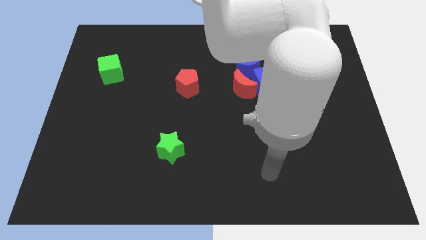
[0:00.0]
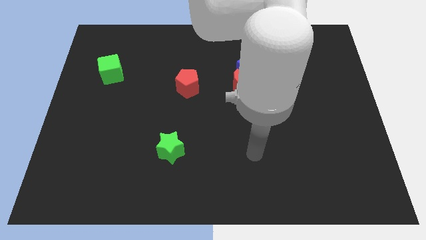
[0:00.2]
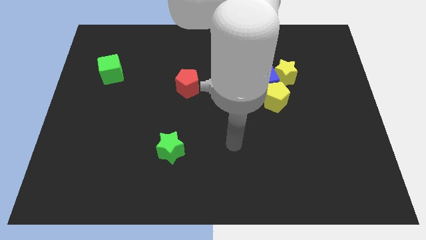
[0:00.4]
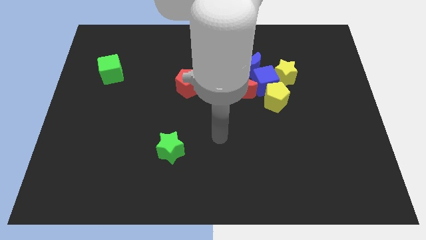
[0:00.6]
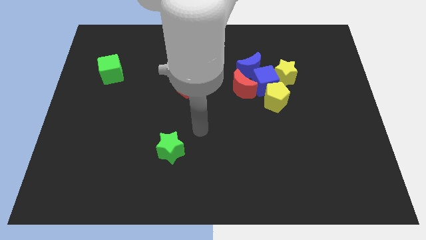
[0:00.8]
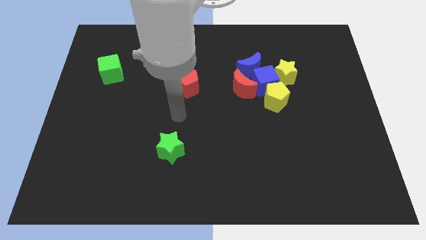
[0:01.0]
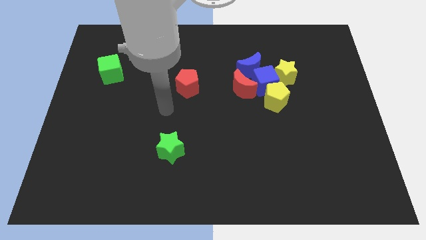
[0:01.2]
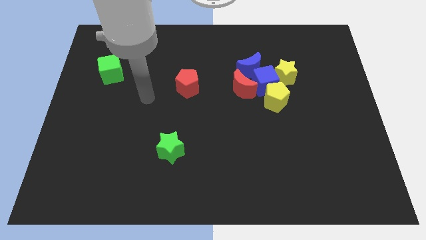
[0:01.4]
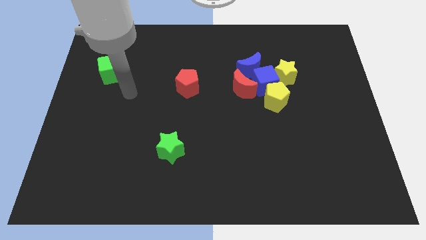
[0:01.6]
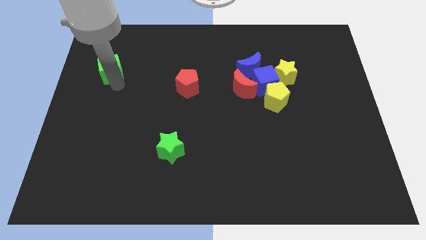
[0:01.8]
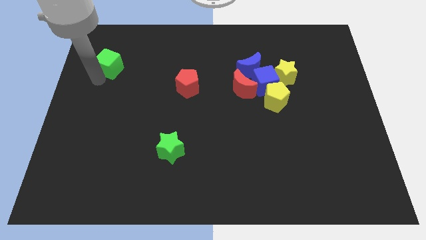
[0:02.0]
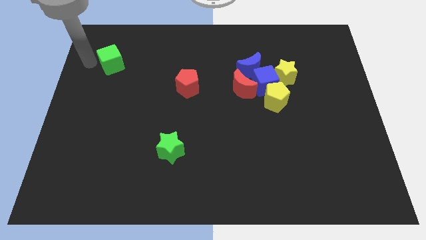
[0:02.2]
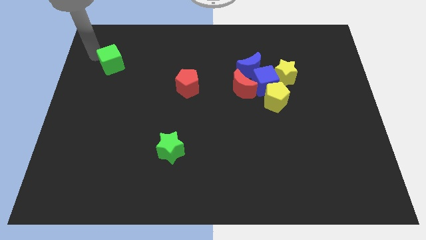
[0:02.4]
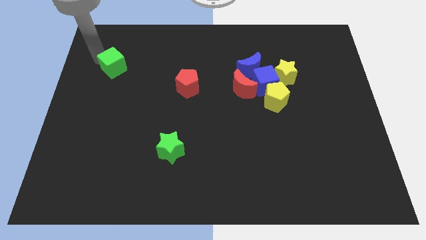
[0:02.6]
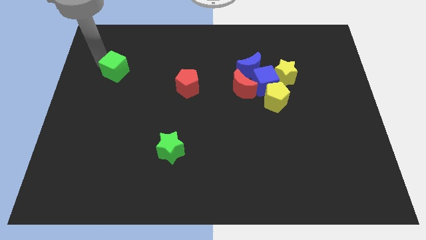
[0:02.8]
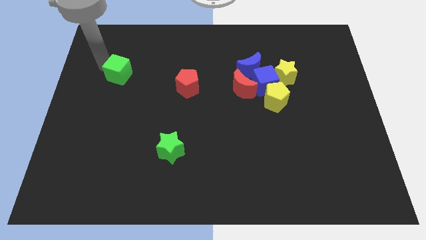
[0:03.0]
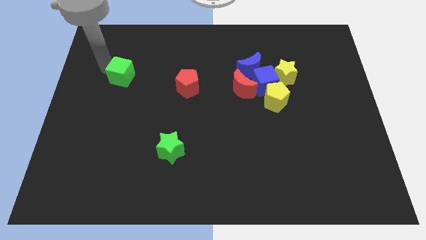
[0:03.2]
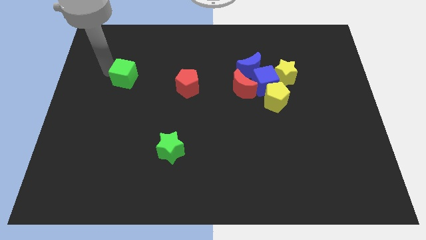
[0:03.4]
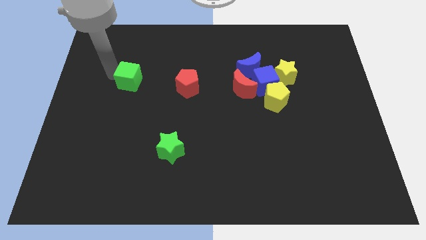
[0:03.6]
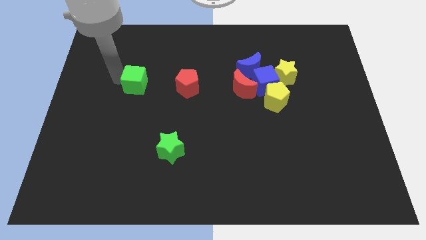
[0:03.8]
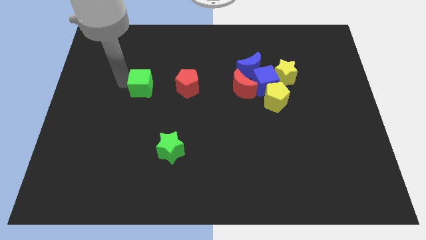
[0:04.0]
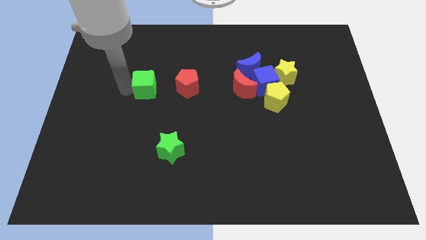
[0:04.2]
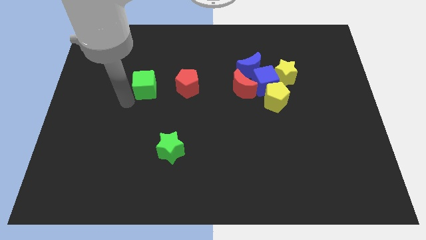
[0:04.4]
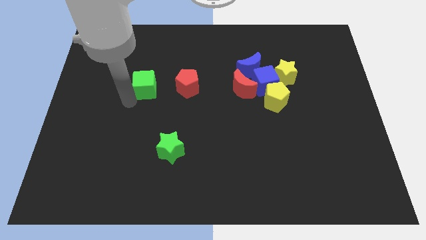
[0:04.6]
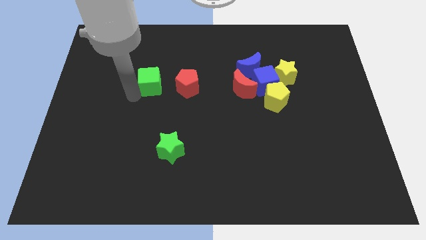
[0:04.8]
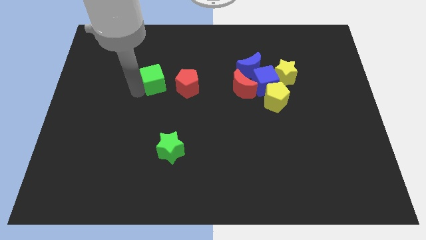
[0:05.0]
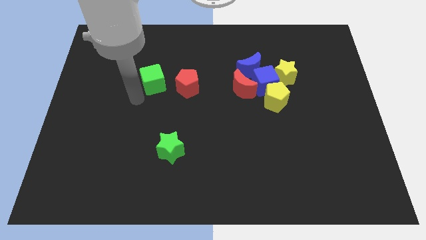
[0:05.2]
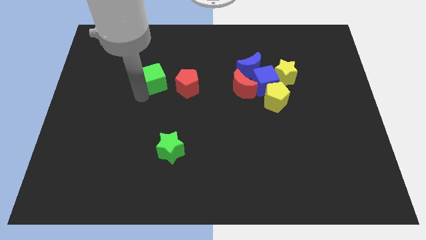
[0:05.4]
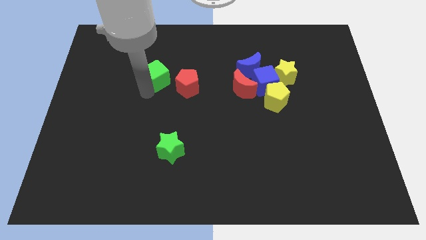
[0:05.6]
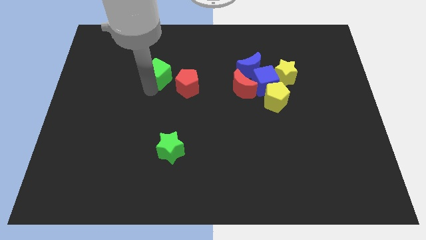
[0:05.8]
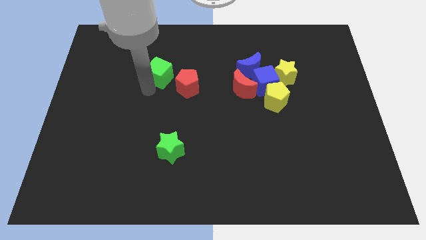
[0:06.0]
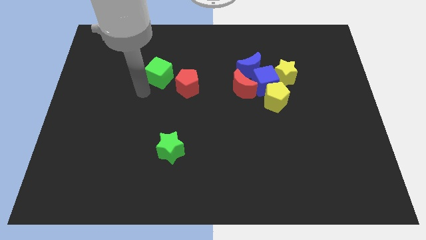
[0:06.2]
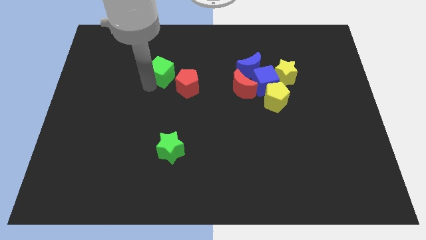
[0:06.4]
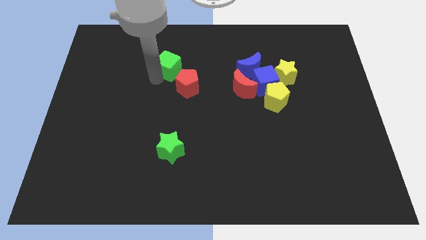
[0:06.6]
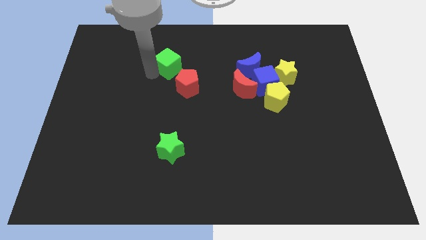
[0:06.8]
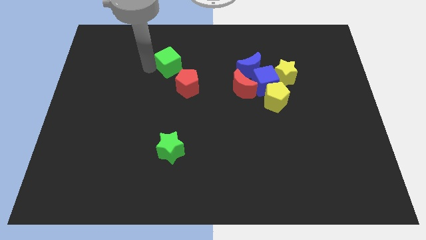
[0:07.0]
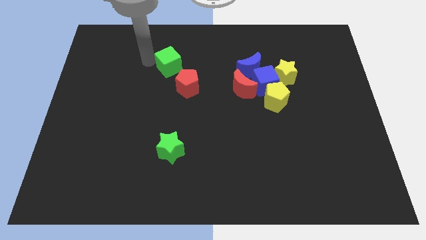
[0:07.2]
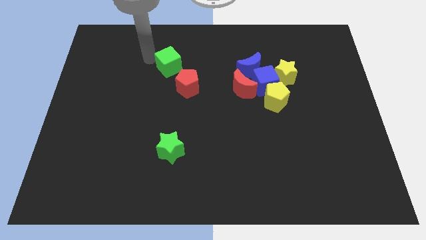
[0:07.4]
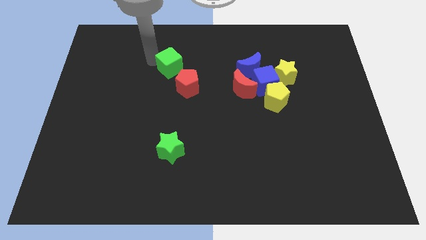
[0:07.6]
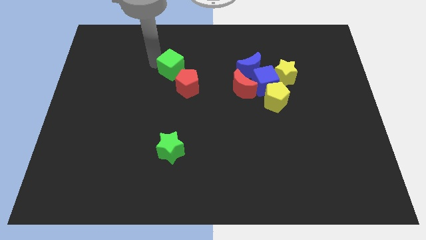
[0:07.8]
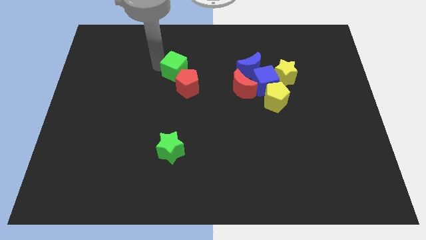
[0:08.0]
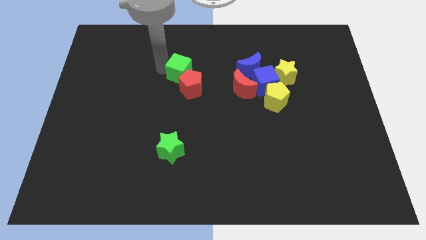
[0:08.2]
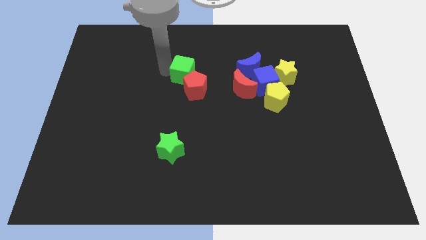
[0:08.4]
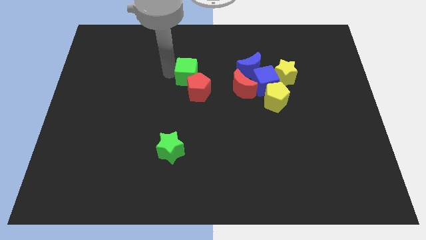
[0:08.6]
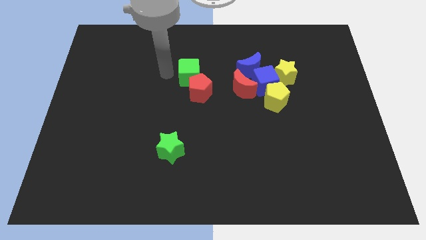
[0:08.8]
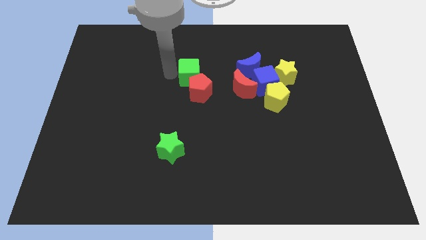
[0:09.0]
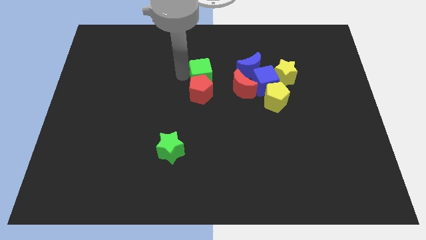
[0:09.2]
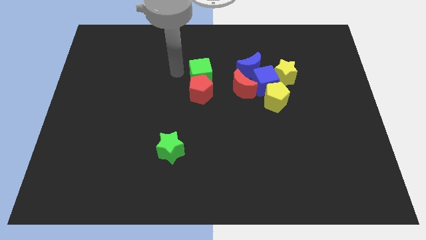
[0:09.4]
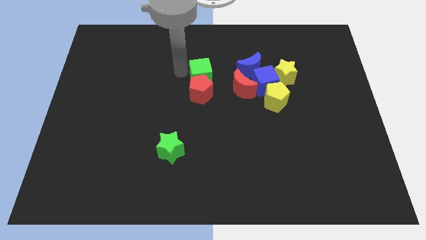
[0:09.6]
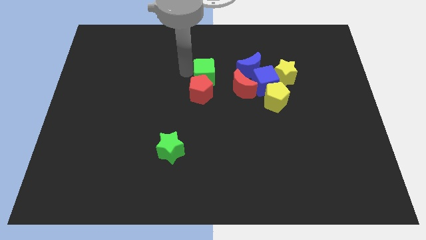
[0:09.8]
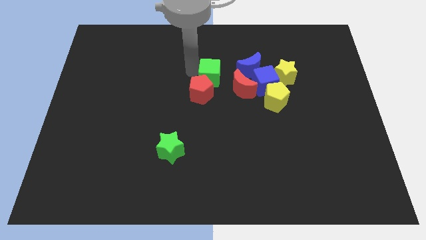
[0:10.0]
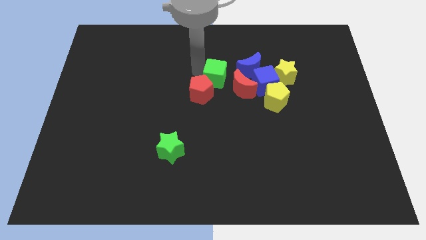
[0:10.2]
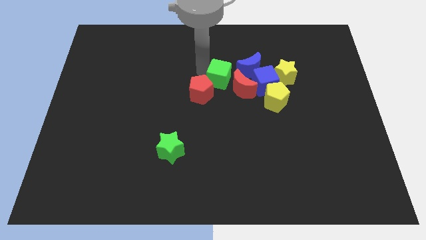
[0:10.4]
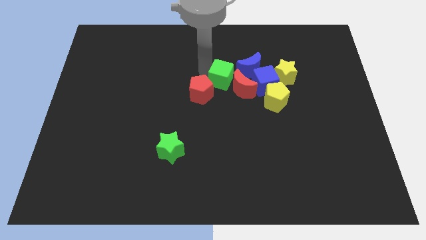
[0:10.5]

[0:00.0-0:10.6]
push the green cube next to the red moon

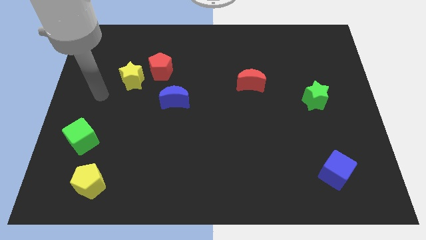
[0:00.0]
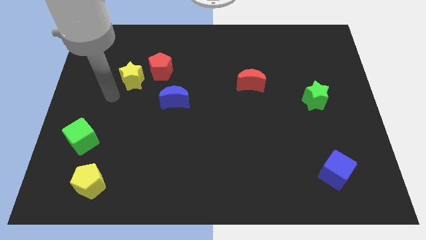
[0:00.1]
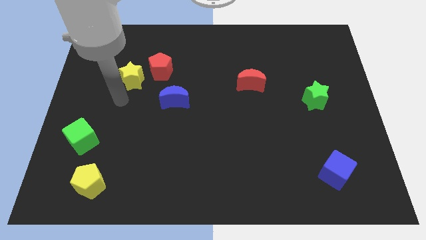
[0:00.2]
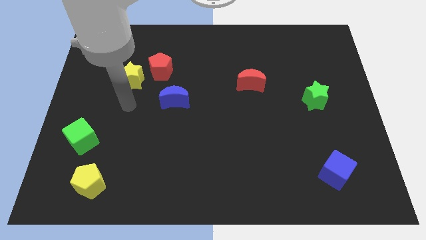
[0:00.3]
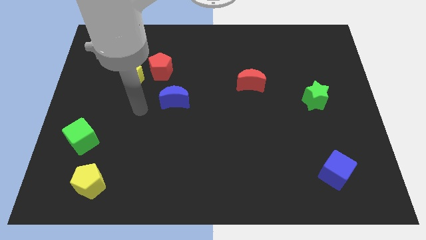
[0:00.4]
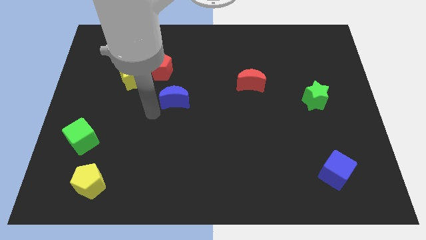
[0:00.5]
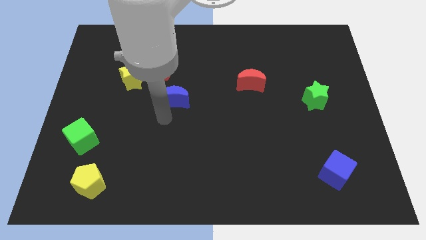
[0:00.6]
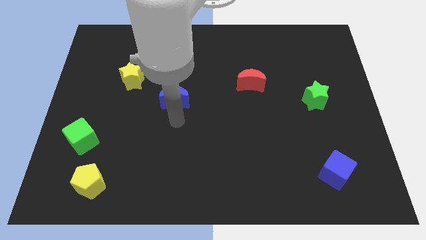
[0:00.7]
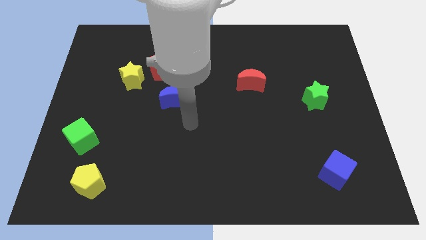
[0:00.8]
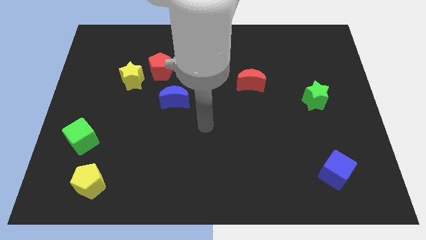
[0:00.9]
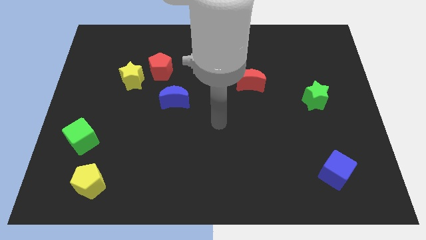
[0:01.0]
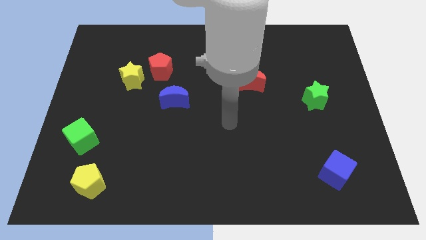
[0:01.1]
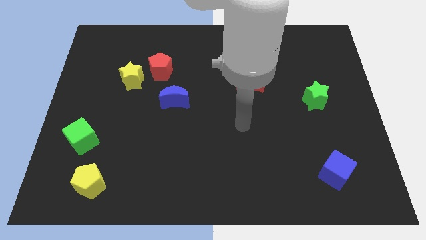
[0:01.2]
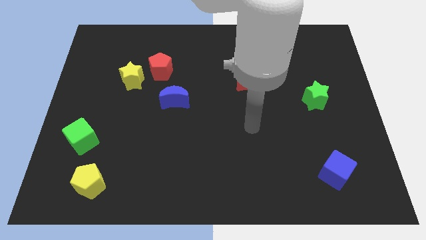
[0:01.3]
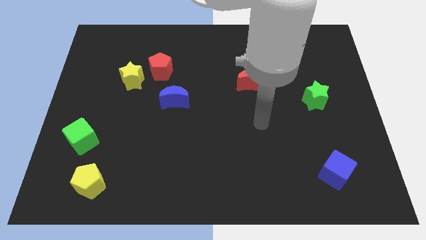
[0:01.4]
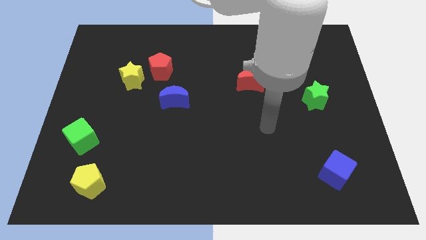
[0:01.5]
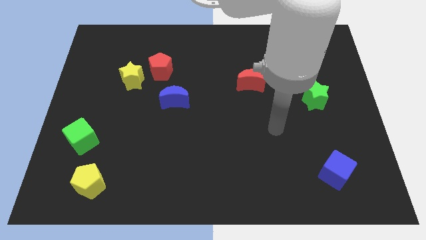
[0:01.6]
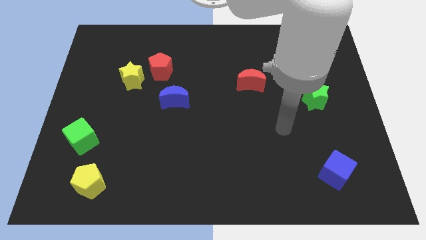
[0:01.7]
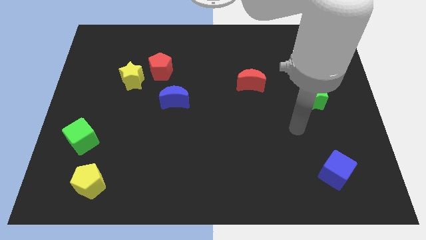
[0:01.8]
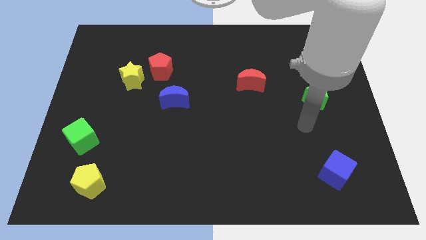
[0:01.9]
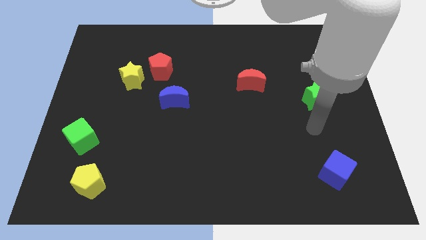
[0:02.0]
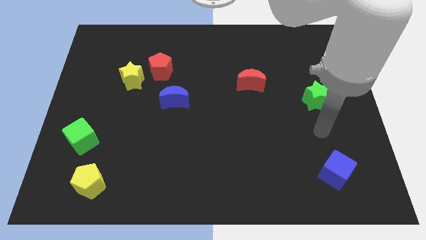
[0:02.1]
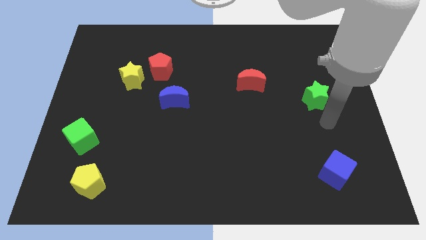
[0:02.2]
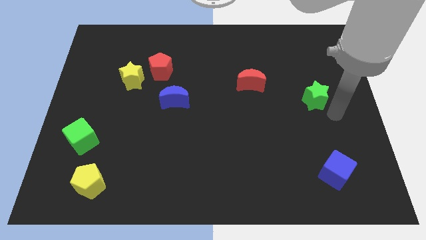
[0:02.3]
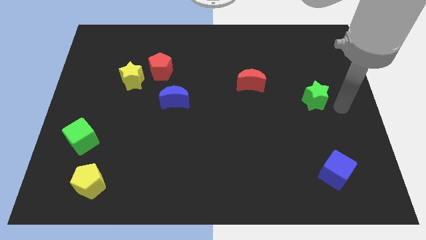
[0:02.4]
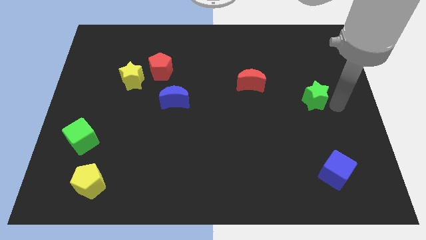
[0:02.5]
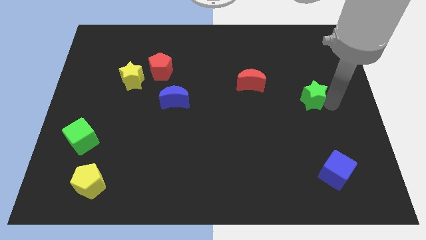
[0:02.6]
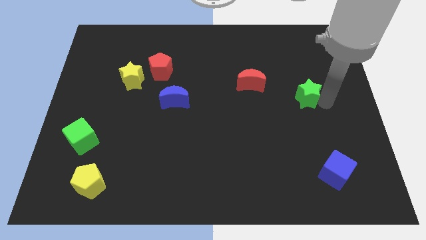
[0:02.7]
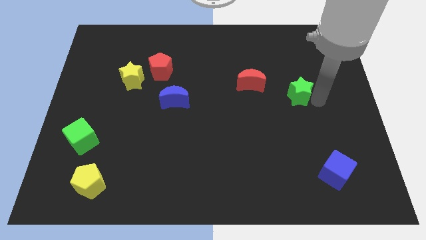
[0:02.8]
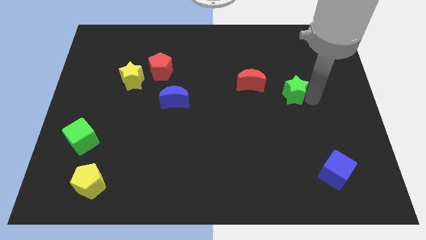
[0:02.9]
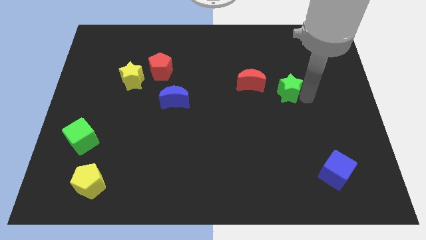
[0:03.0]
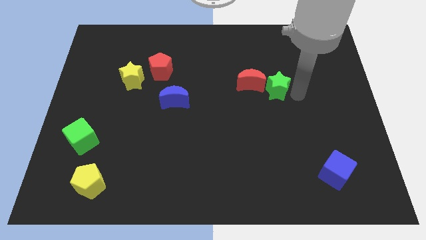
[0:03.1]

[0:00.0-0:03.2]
move the green star next to the red moon

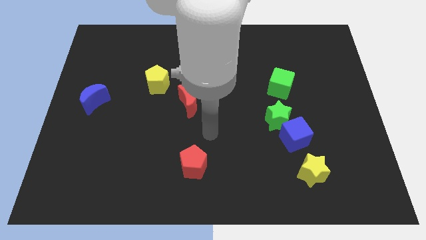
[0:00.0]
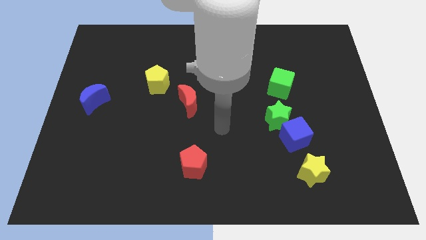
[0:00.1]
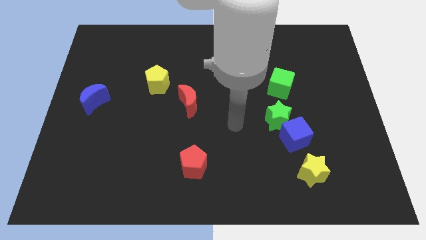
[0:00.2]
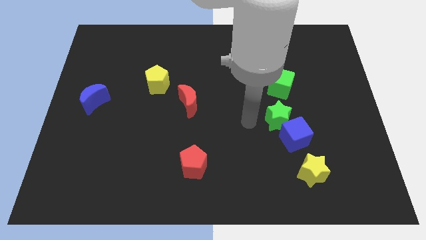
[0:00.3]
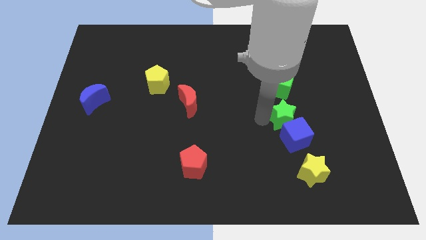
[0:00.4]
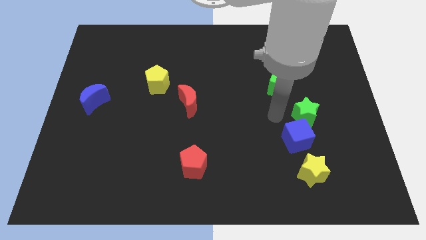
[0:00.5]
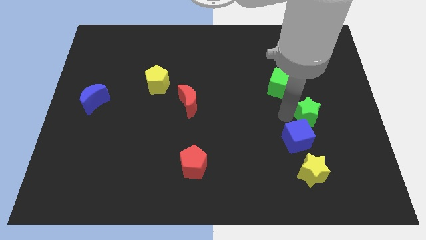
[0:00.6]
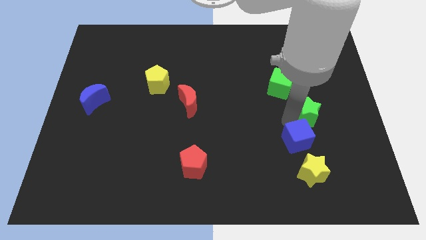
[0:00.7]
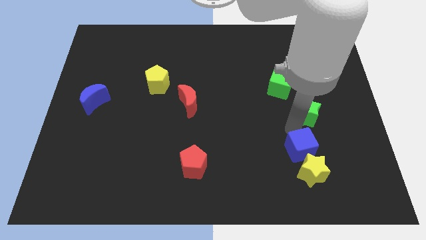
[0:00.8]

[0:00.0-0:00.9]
move the blue cube next to the yellow star
